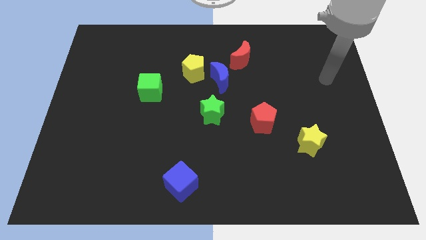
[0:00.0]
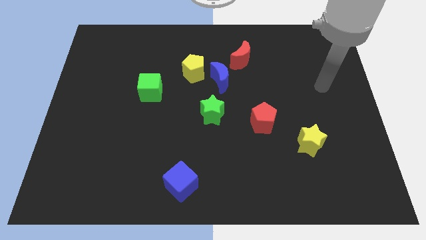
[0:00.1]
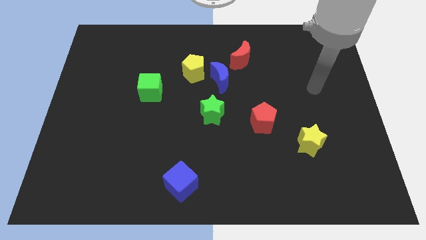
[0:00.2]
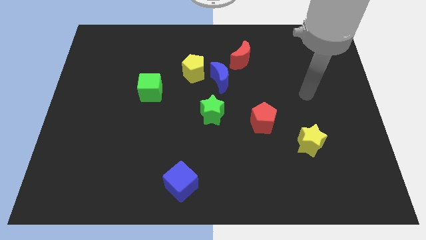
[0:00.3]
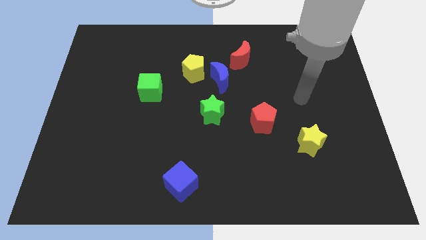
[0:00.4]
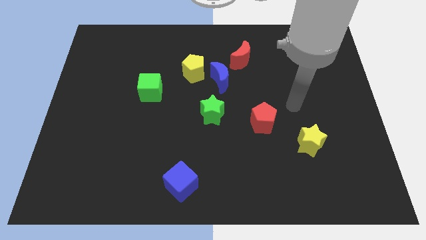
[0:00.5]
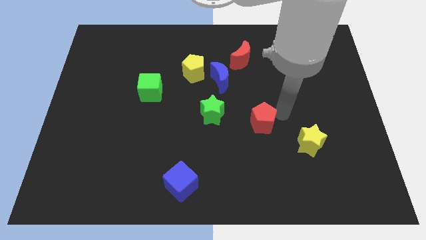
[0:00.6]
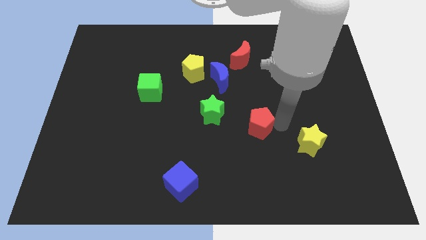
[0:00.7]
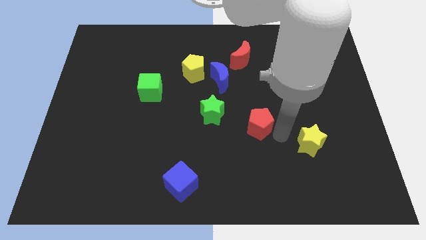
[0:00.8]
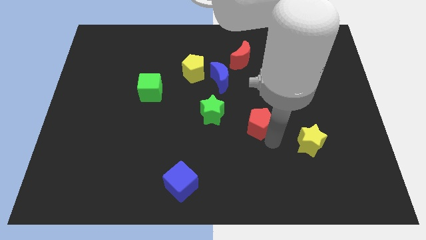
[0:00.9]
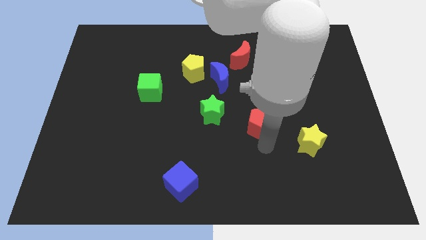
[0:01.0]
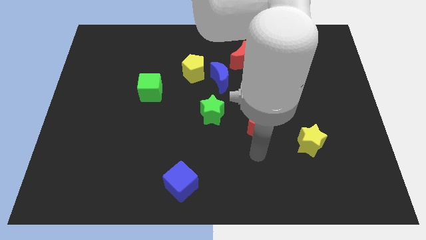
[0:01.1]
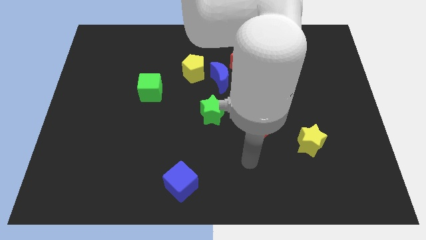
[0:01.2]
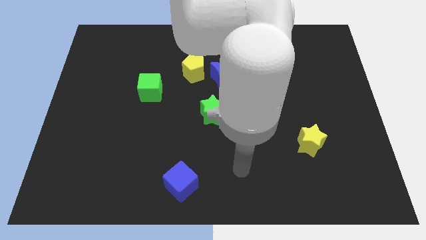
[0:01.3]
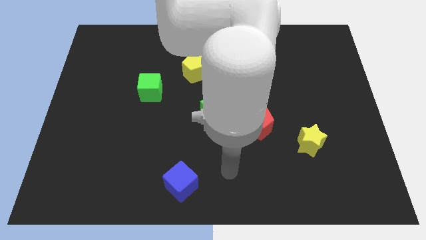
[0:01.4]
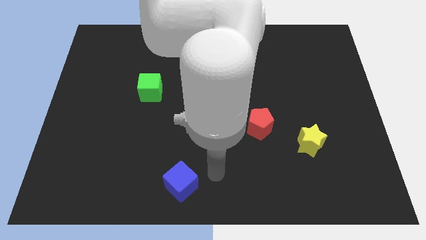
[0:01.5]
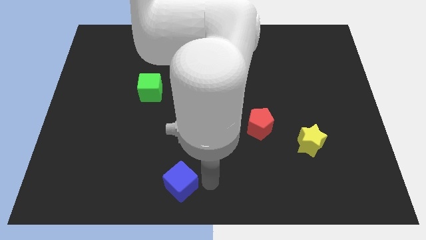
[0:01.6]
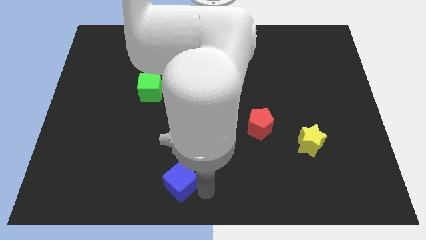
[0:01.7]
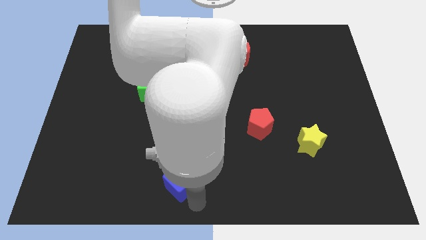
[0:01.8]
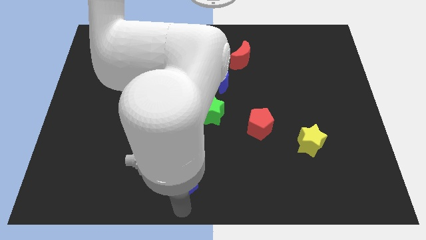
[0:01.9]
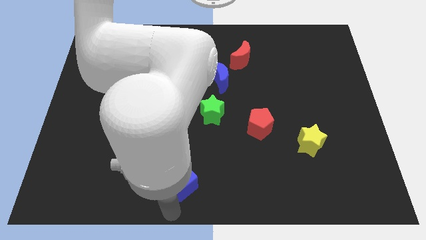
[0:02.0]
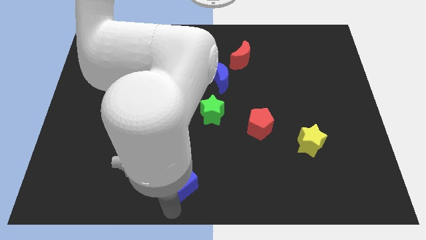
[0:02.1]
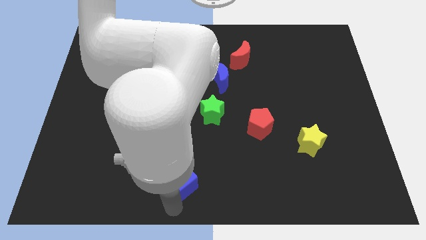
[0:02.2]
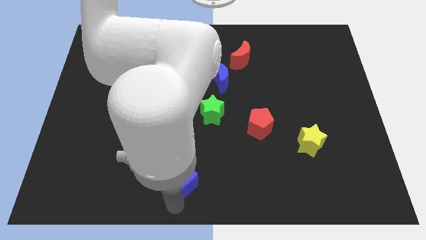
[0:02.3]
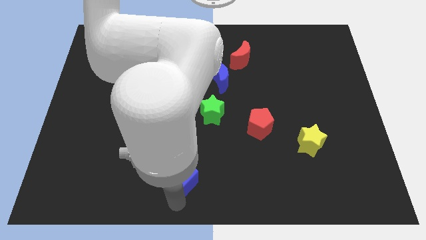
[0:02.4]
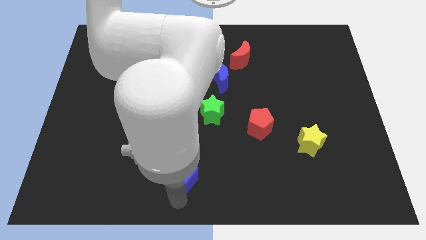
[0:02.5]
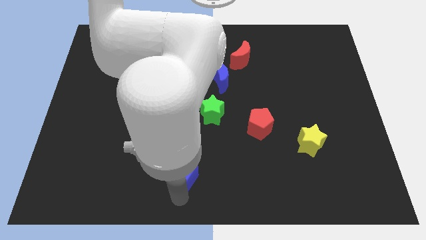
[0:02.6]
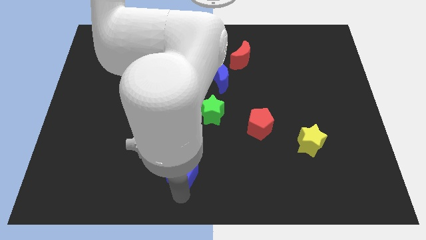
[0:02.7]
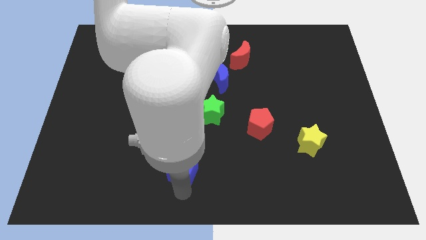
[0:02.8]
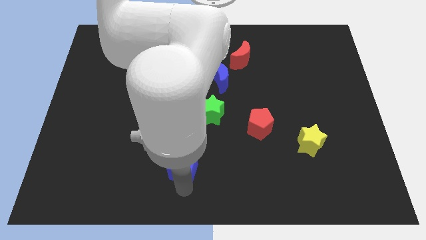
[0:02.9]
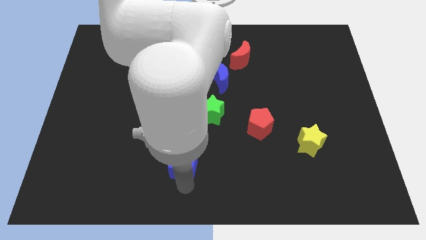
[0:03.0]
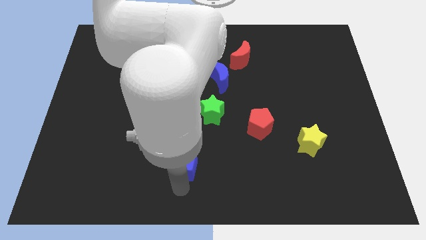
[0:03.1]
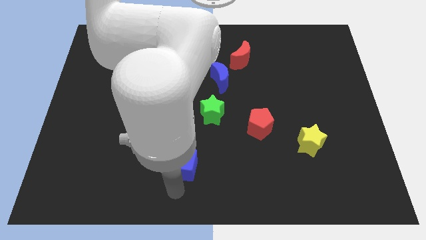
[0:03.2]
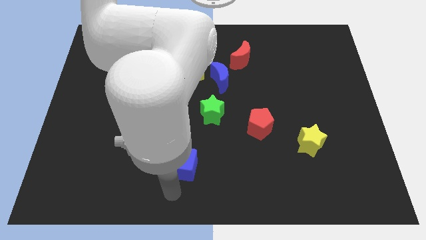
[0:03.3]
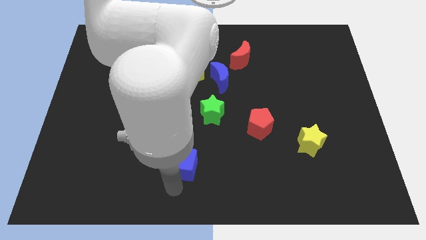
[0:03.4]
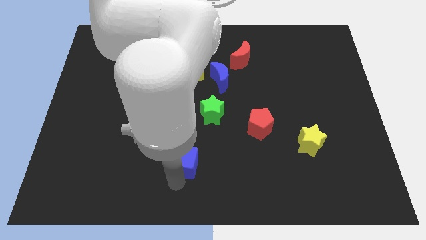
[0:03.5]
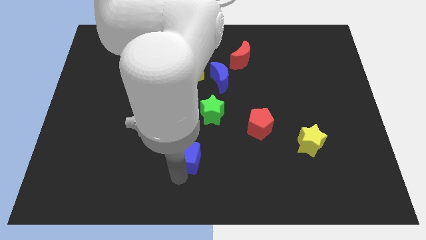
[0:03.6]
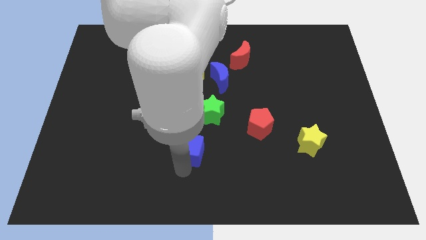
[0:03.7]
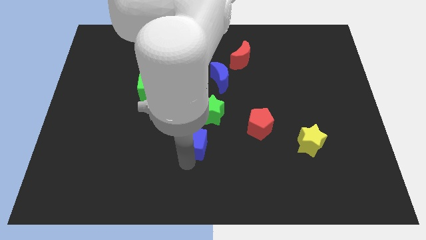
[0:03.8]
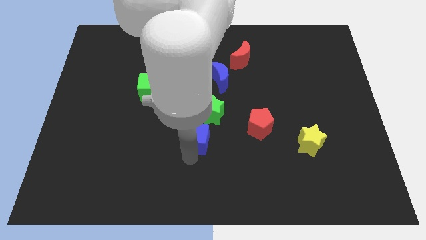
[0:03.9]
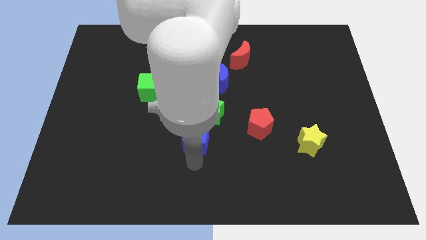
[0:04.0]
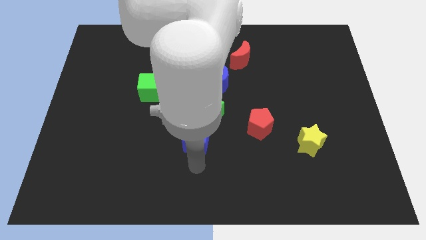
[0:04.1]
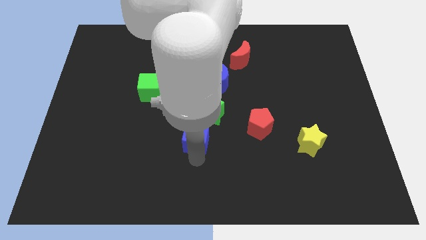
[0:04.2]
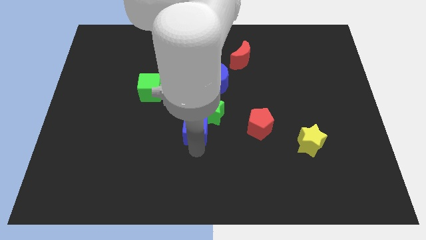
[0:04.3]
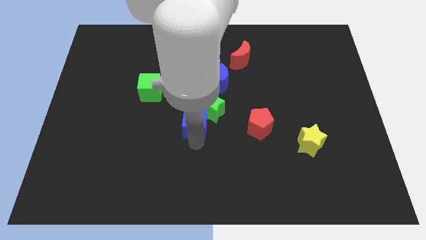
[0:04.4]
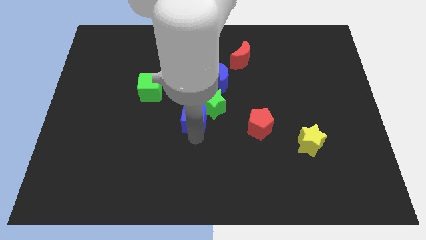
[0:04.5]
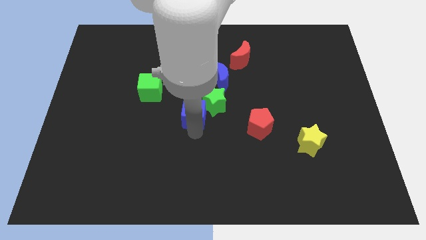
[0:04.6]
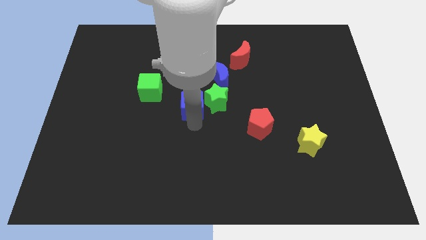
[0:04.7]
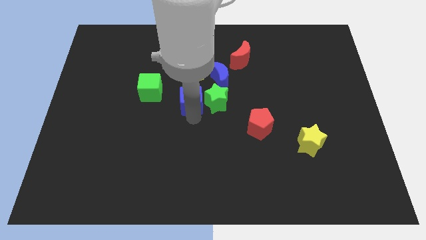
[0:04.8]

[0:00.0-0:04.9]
put the blue cube just right of the green cube

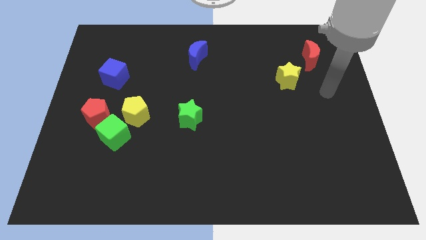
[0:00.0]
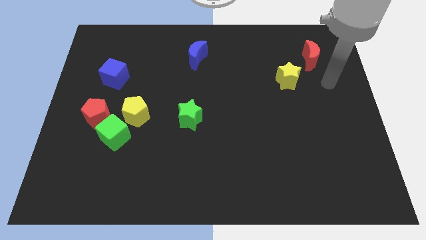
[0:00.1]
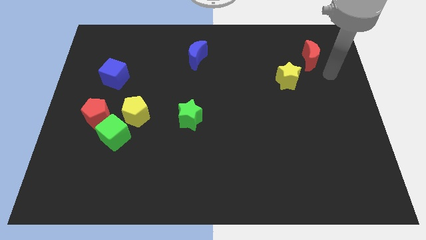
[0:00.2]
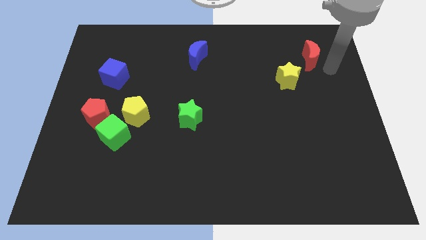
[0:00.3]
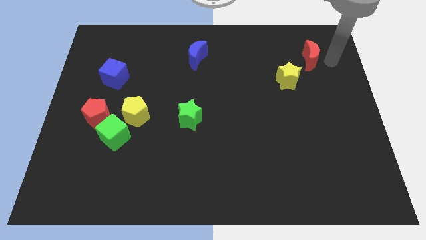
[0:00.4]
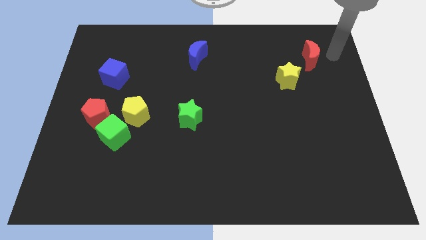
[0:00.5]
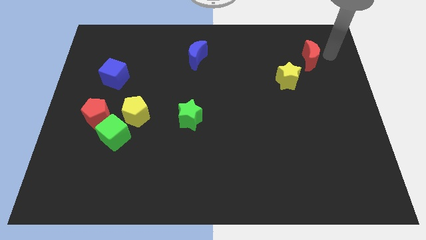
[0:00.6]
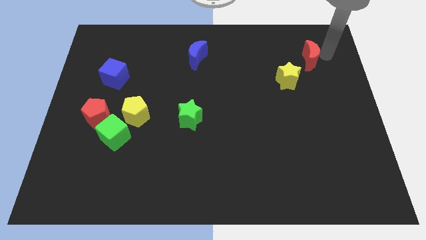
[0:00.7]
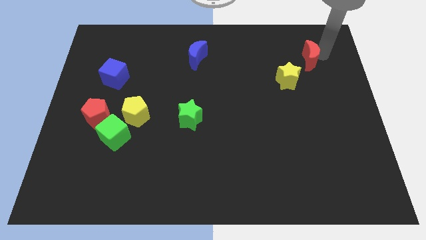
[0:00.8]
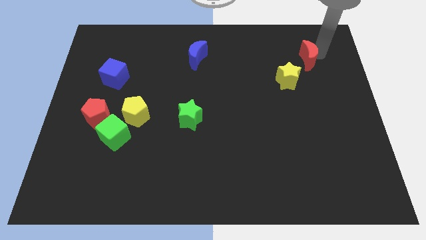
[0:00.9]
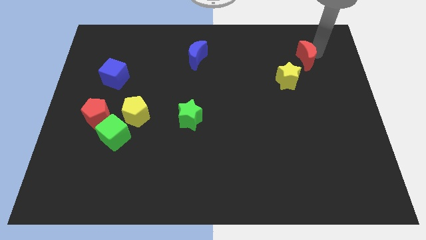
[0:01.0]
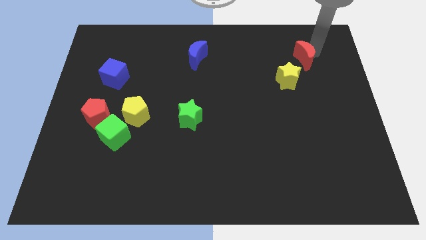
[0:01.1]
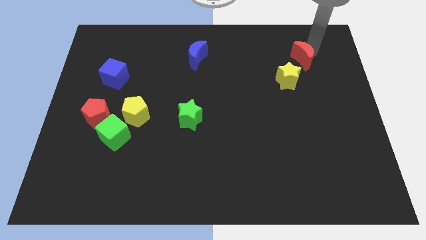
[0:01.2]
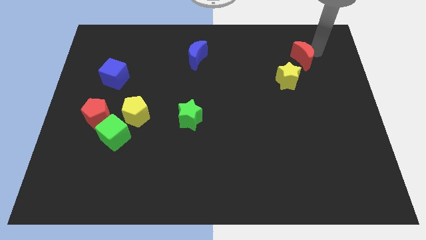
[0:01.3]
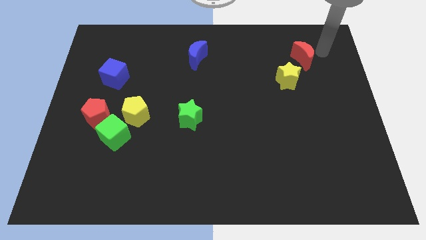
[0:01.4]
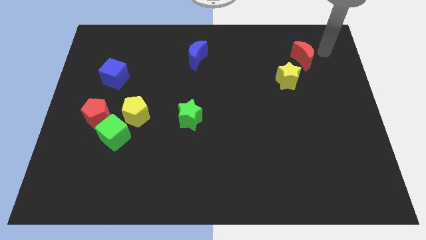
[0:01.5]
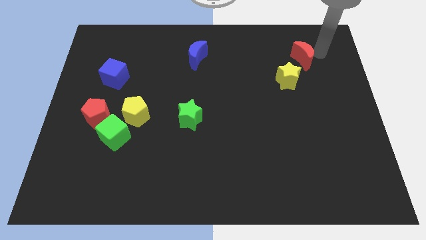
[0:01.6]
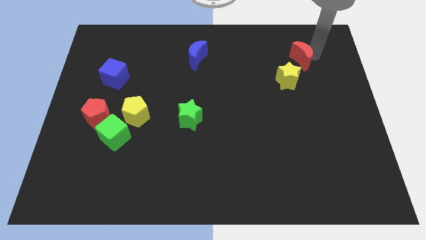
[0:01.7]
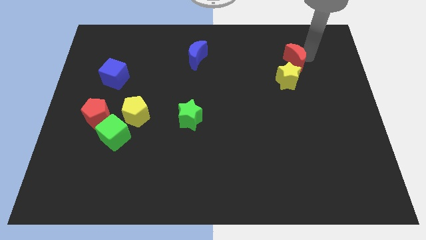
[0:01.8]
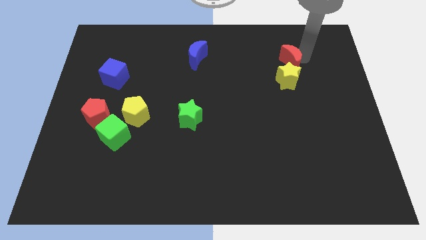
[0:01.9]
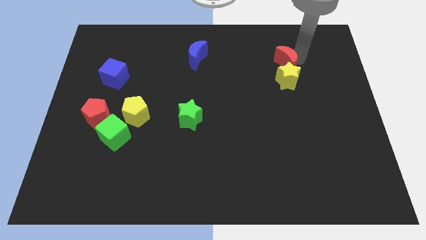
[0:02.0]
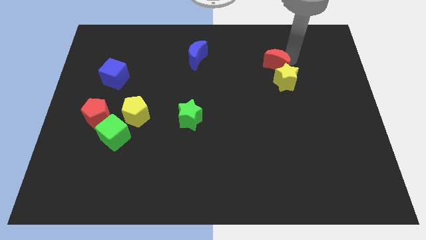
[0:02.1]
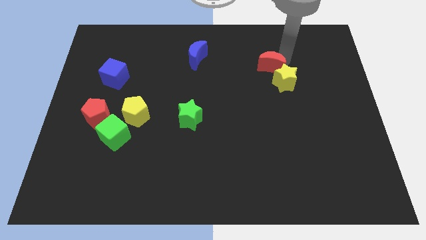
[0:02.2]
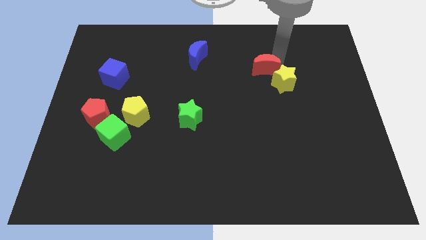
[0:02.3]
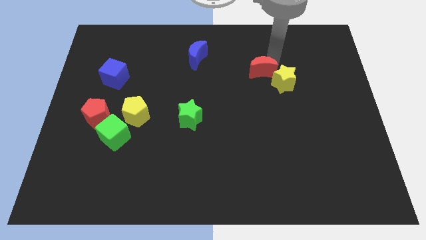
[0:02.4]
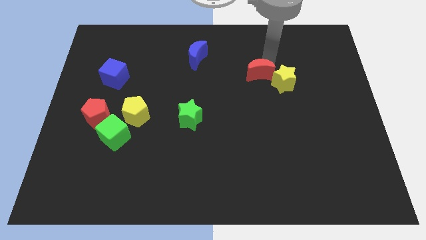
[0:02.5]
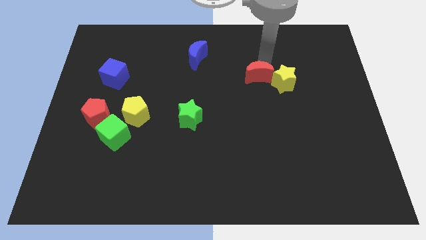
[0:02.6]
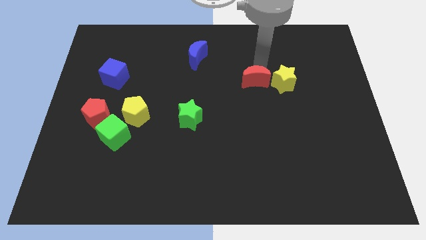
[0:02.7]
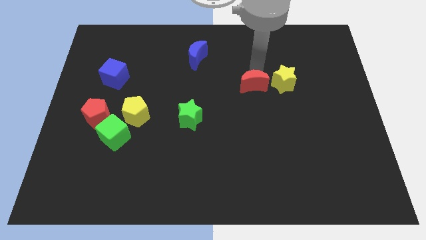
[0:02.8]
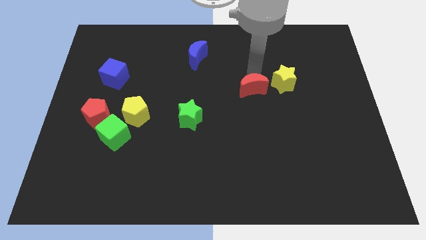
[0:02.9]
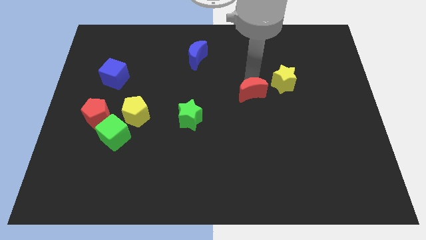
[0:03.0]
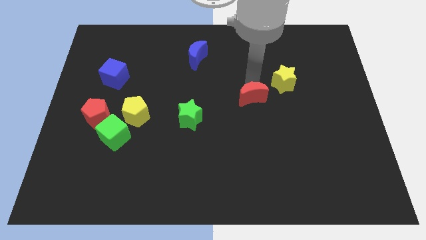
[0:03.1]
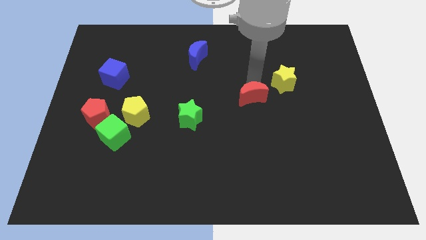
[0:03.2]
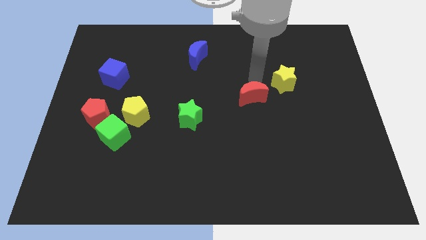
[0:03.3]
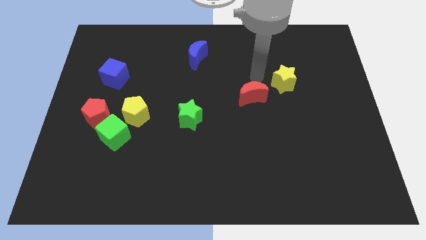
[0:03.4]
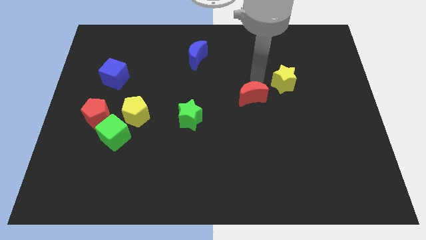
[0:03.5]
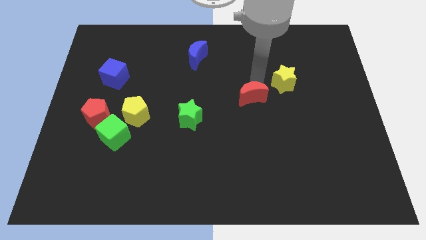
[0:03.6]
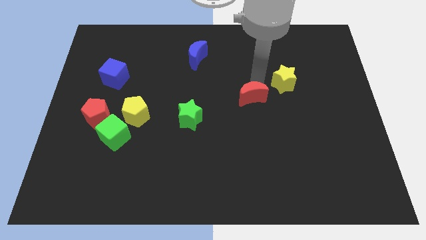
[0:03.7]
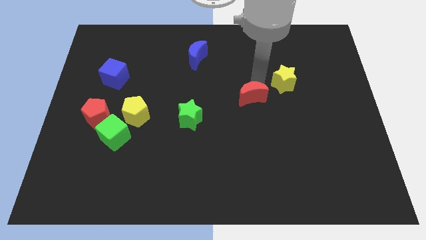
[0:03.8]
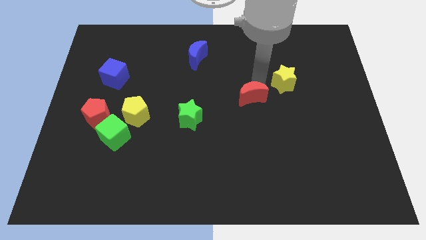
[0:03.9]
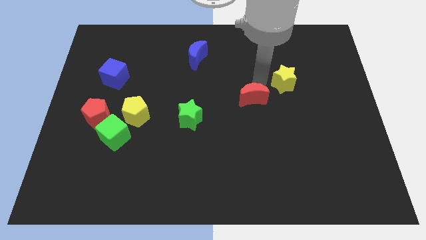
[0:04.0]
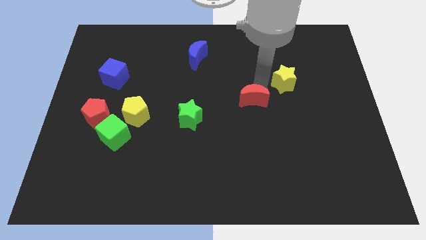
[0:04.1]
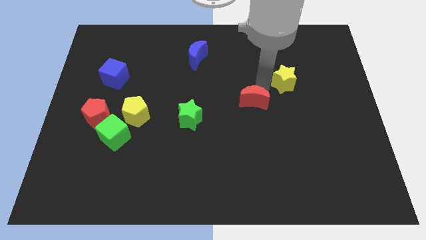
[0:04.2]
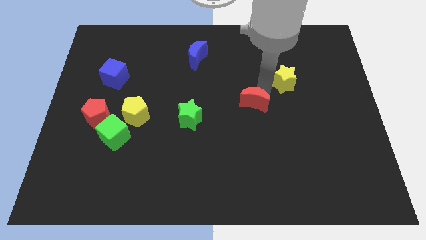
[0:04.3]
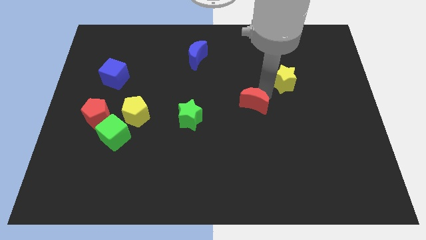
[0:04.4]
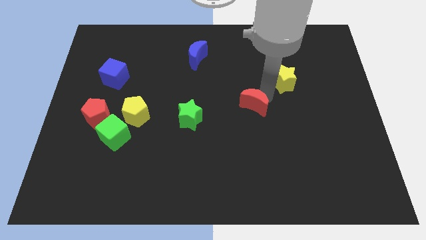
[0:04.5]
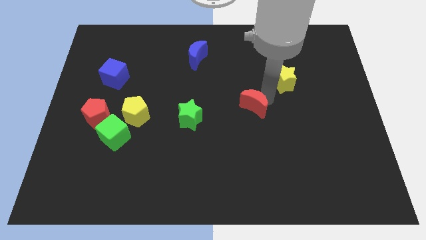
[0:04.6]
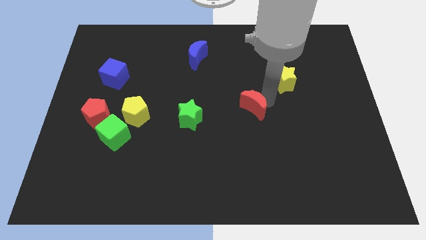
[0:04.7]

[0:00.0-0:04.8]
put the red moon right of the green star
